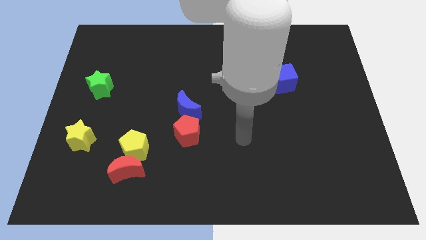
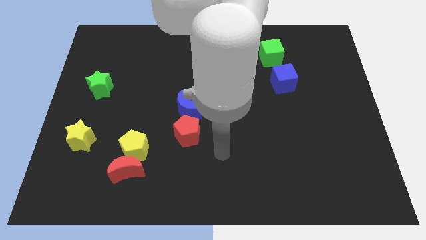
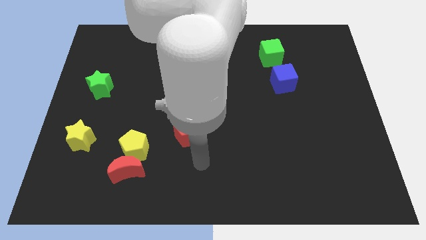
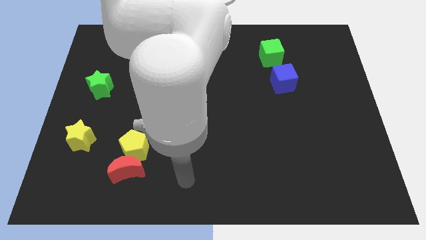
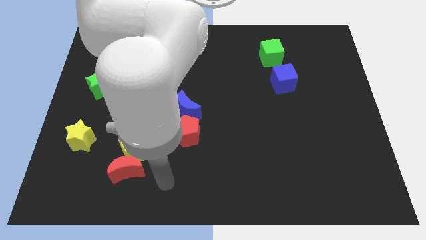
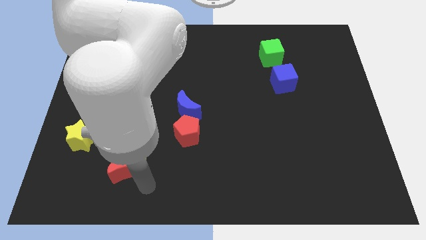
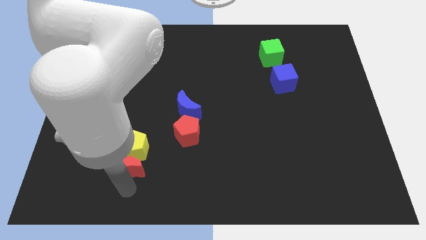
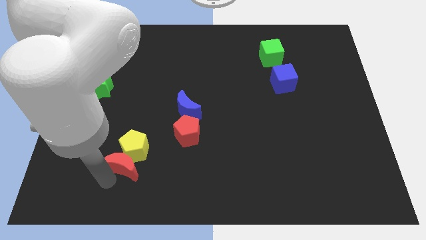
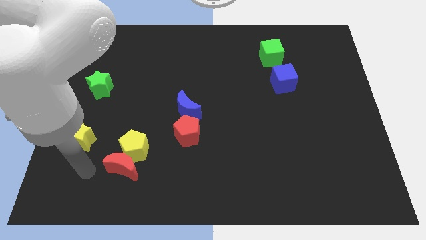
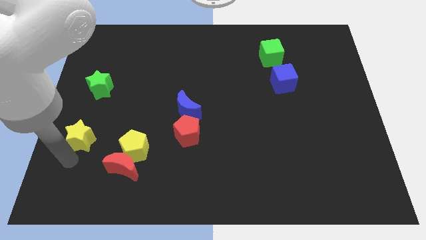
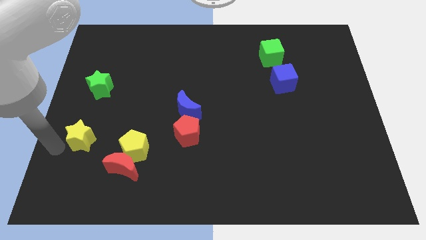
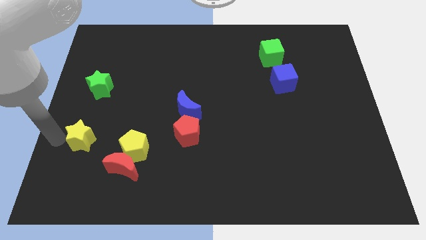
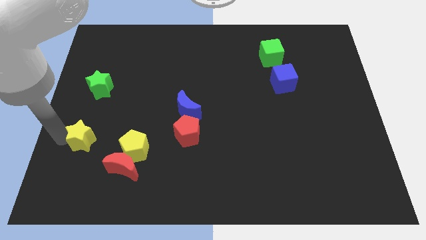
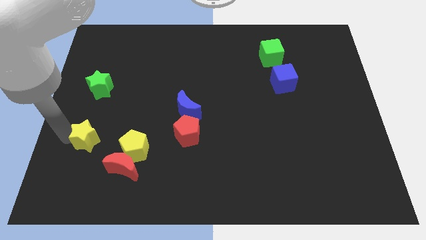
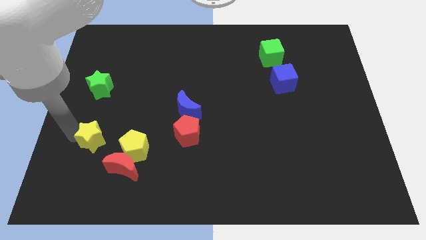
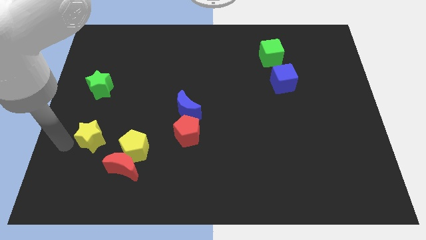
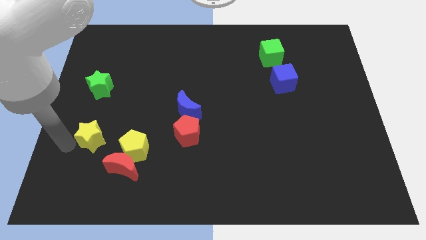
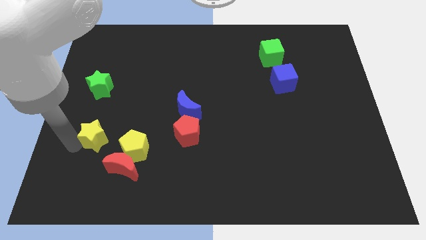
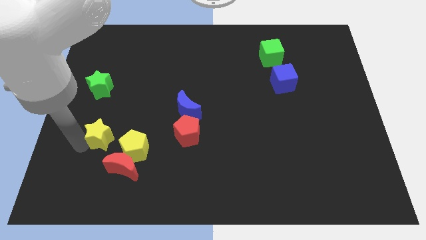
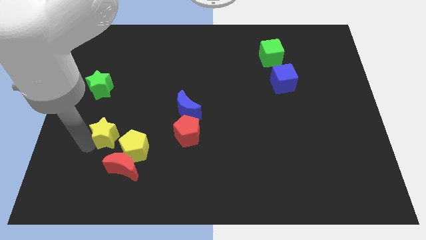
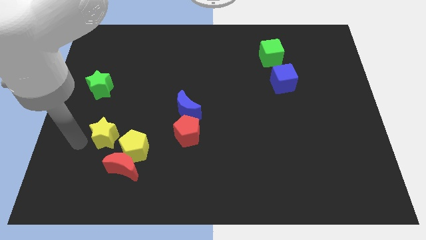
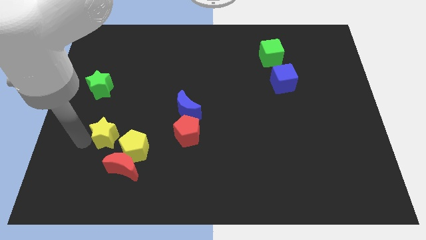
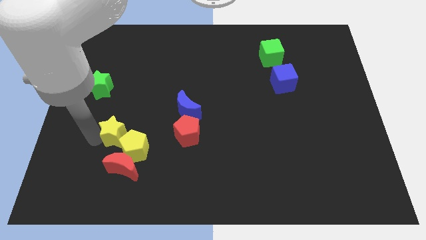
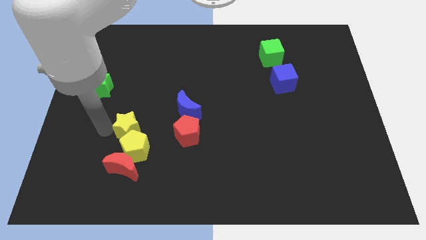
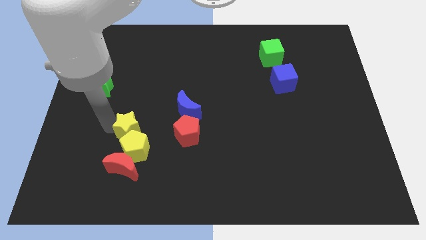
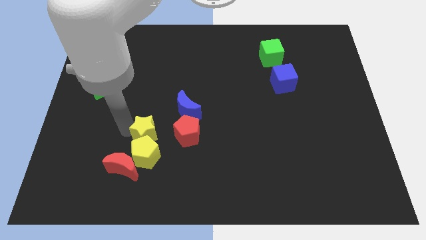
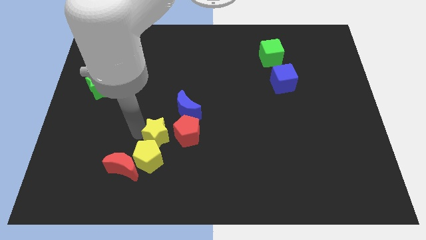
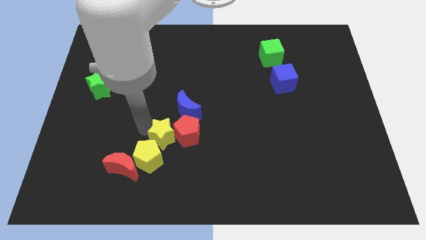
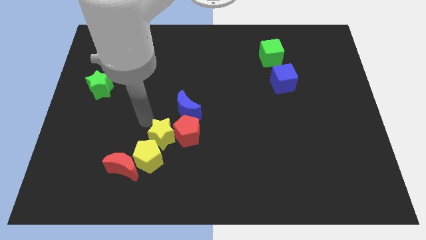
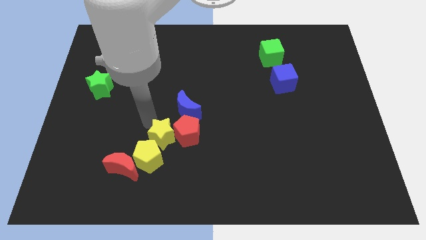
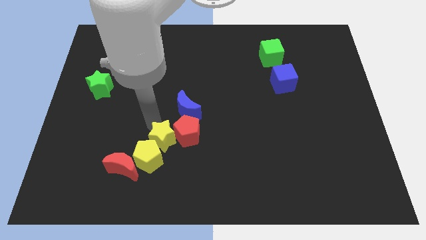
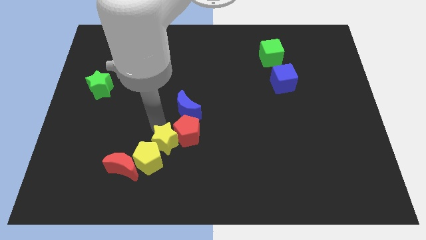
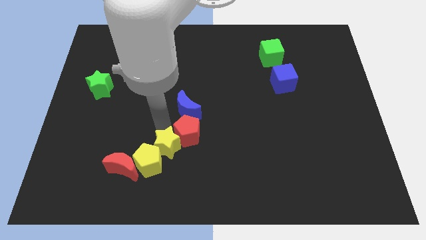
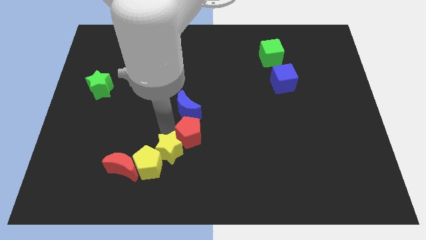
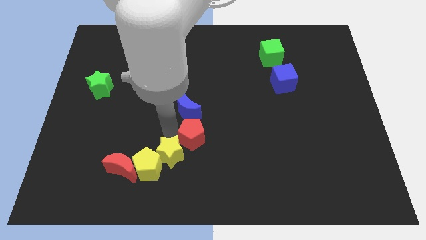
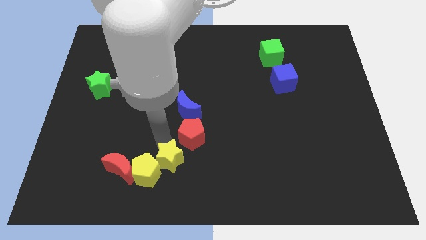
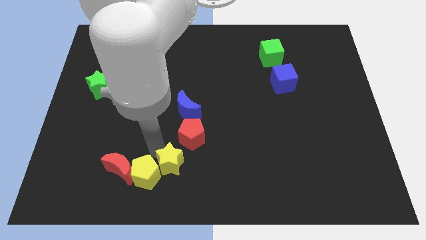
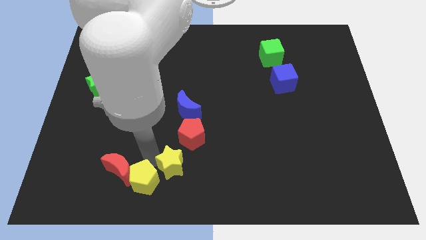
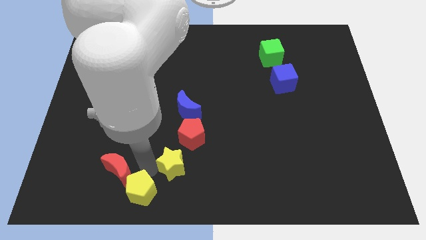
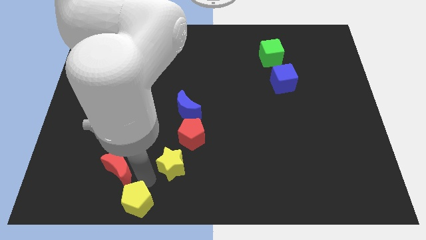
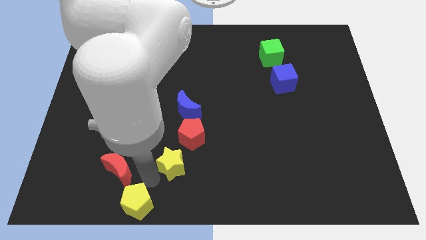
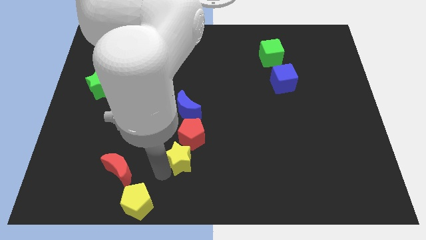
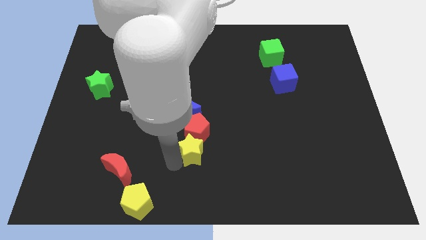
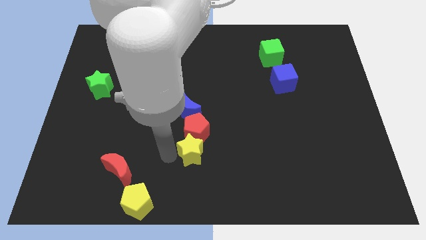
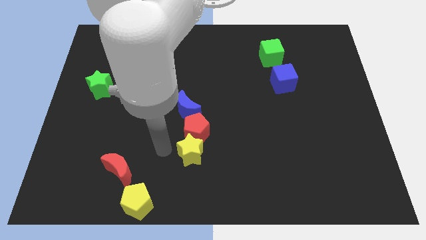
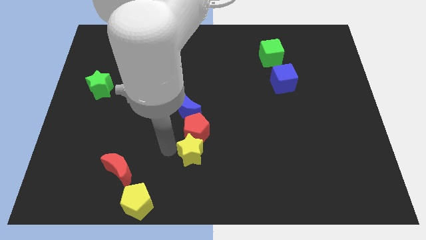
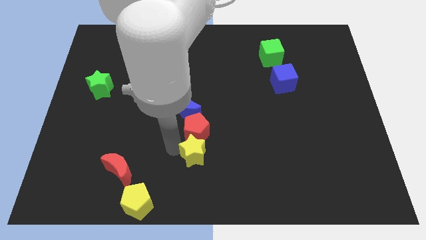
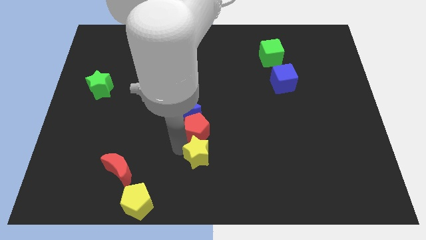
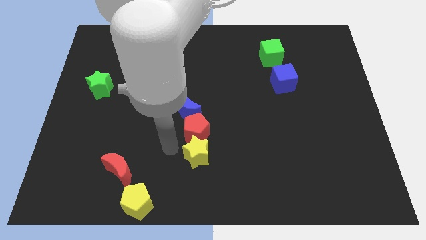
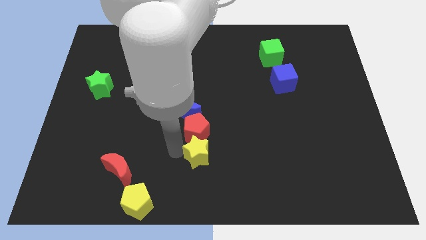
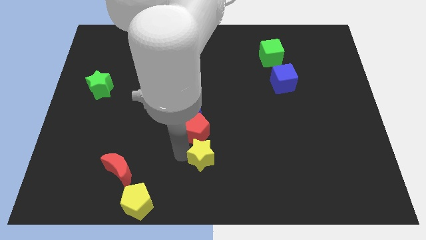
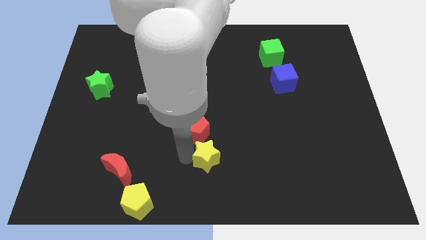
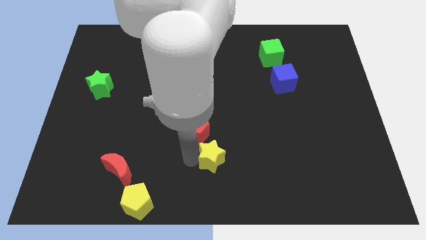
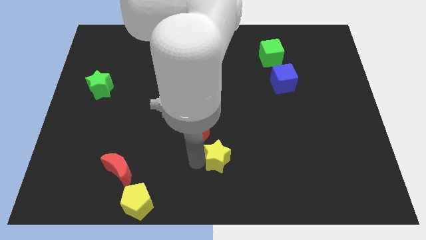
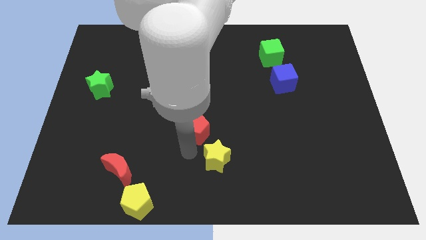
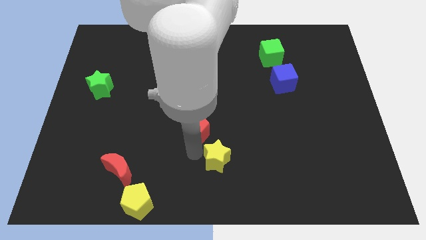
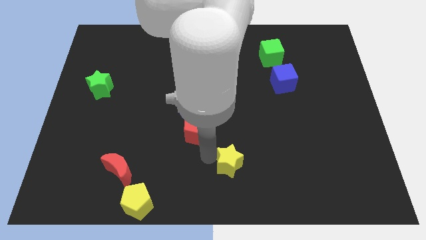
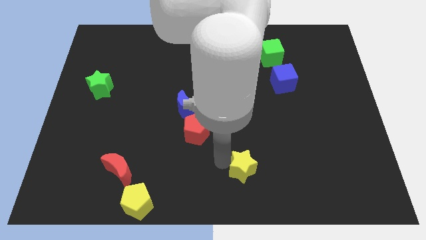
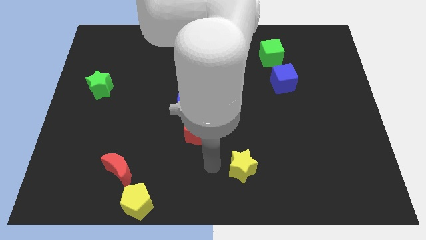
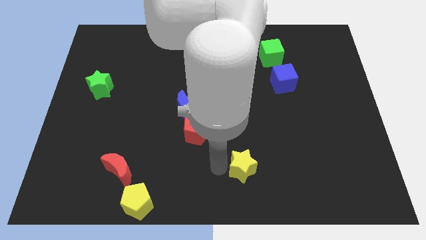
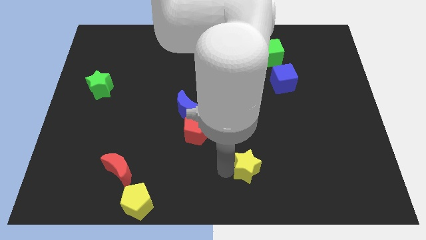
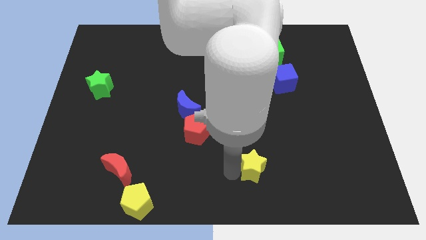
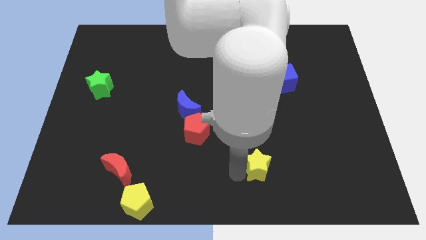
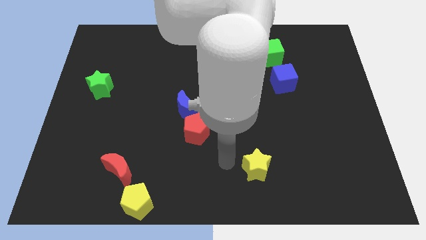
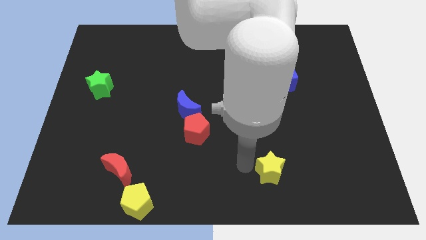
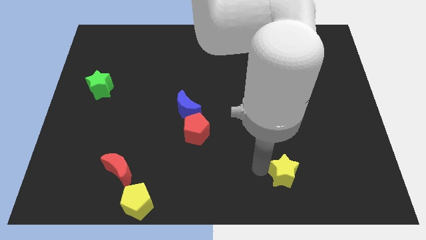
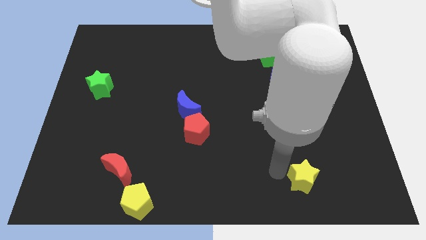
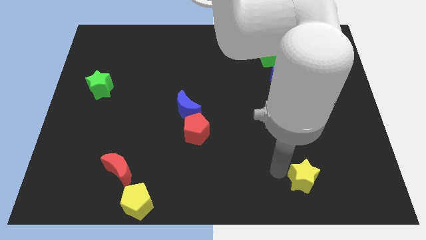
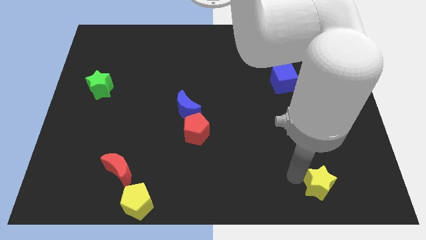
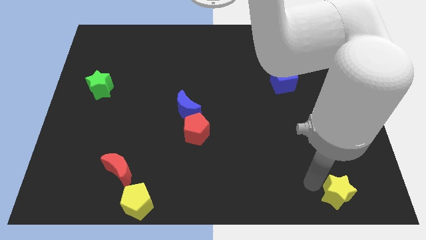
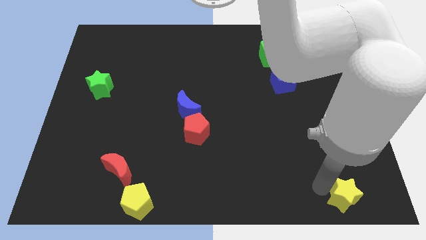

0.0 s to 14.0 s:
move the yellow star to the lower right corner

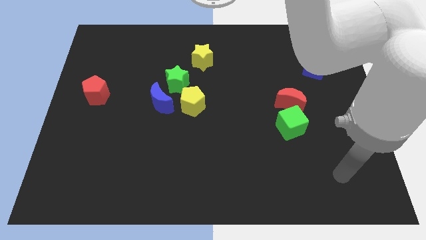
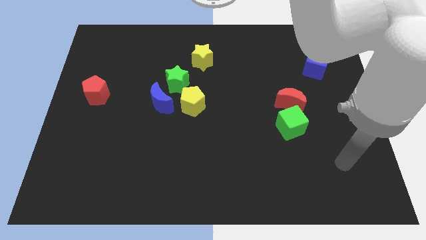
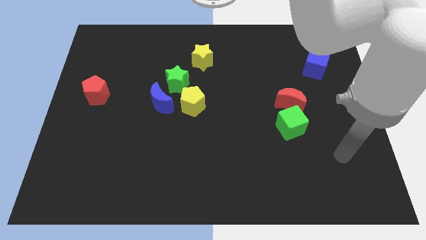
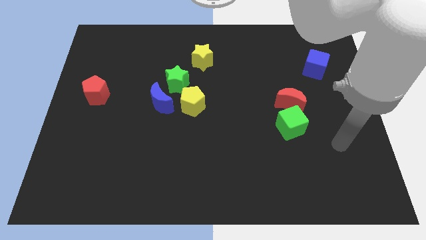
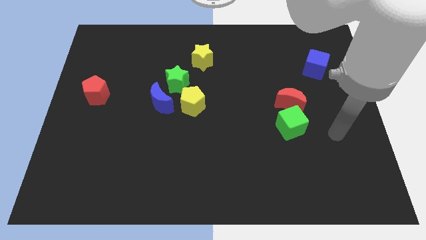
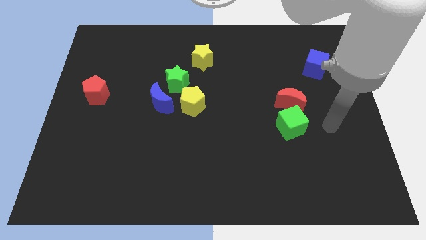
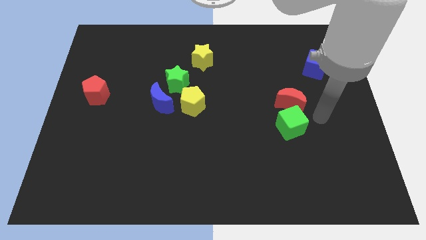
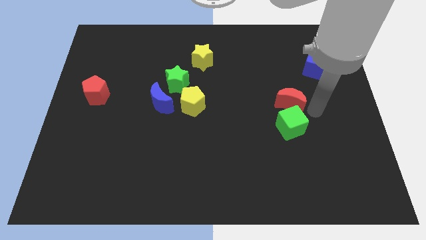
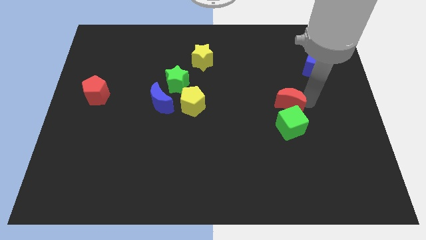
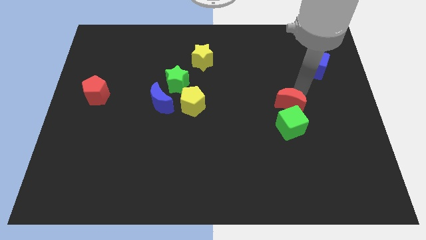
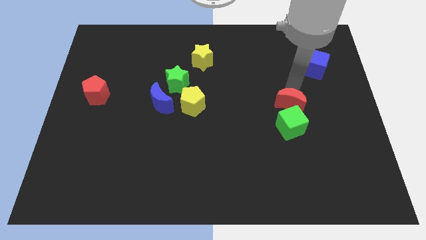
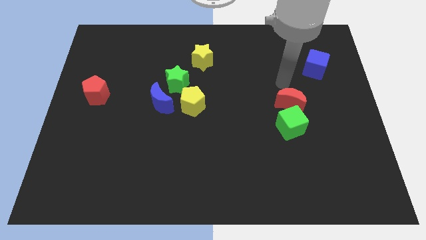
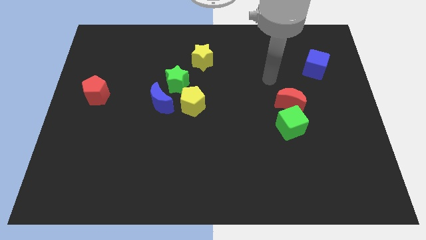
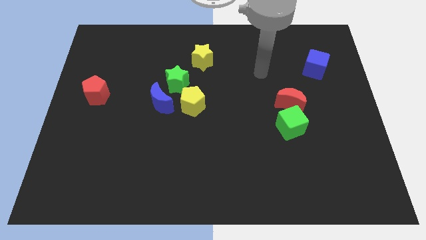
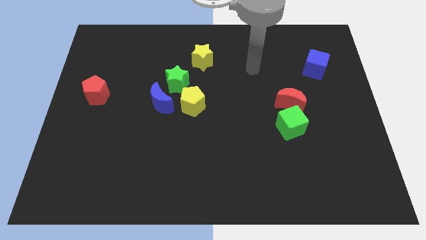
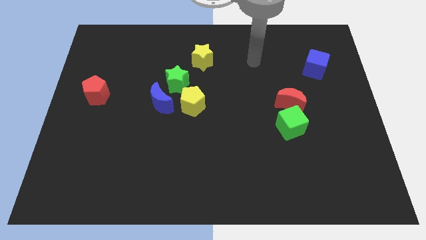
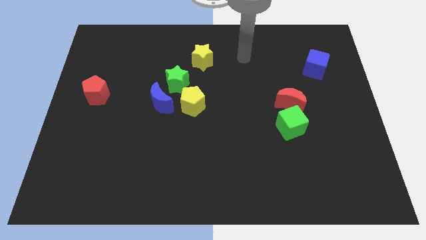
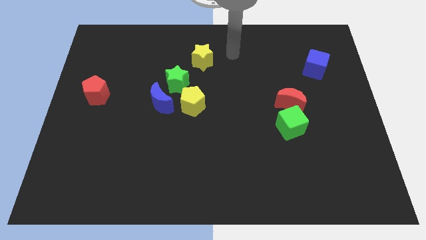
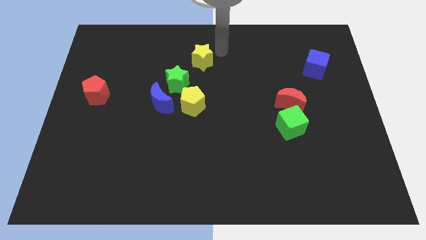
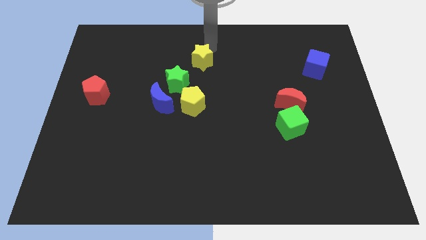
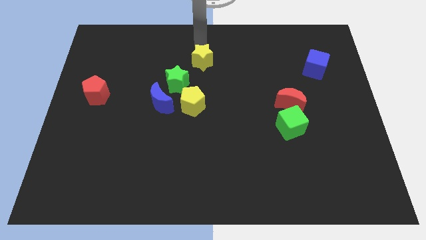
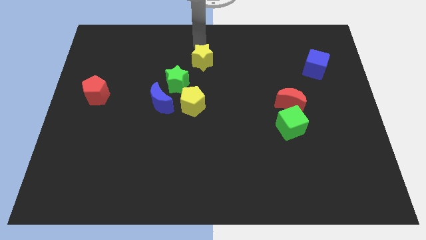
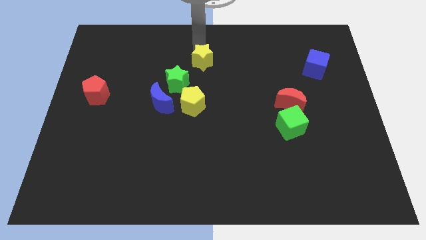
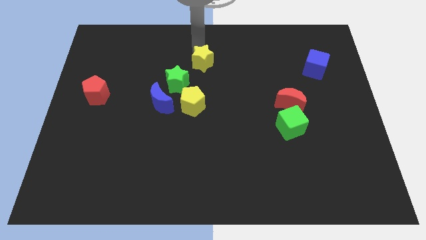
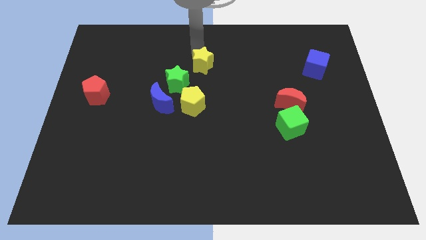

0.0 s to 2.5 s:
move the yellow star to the middle
